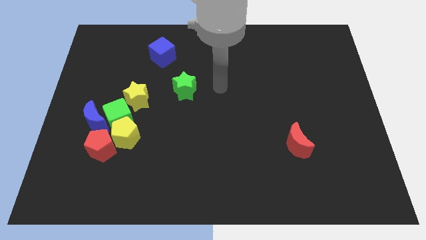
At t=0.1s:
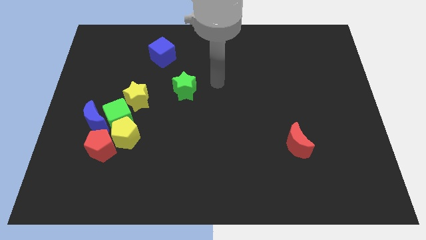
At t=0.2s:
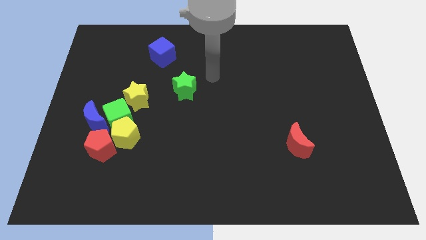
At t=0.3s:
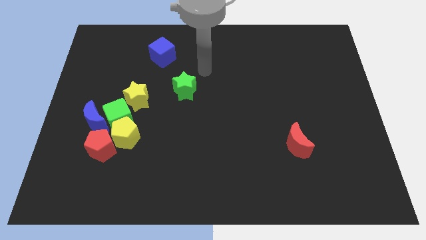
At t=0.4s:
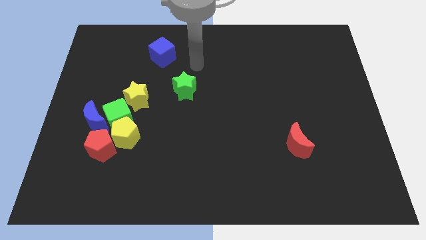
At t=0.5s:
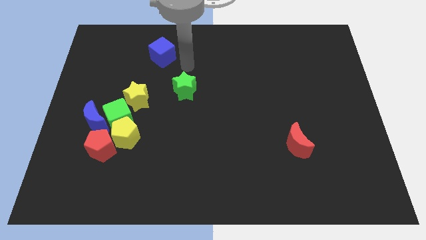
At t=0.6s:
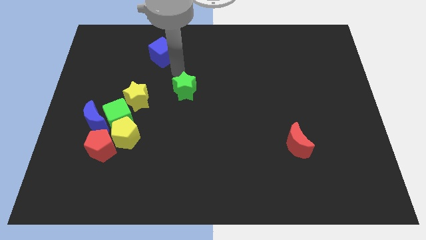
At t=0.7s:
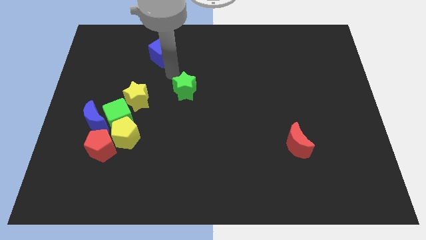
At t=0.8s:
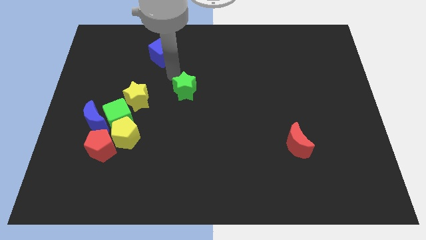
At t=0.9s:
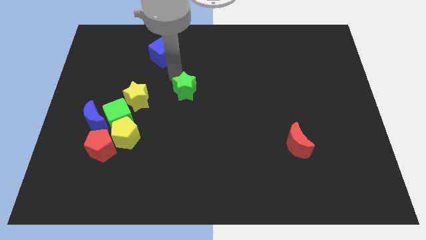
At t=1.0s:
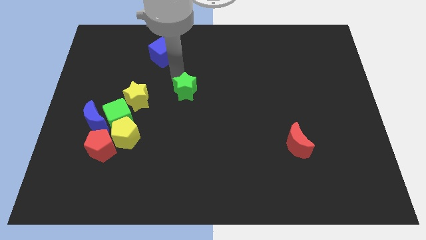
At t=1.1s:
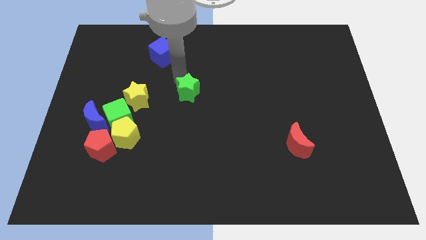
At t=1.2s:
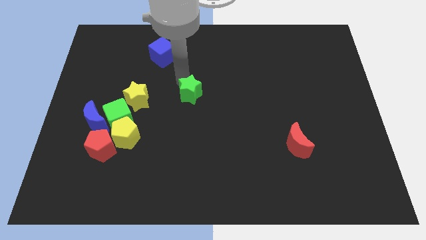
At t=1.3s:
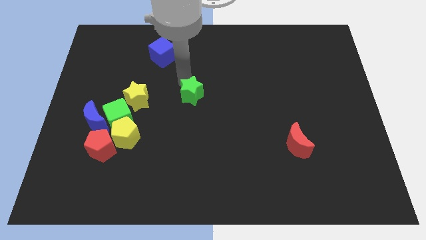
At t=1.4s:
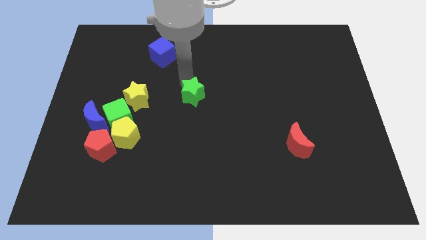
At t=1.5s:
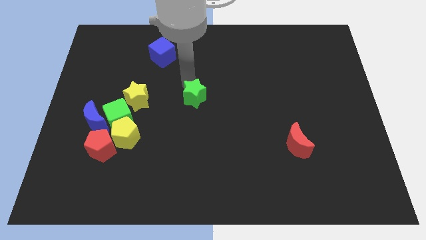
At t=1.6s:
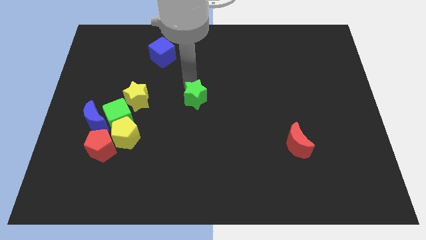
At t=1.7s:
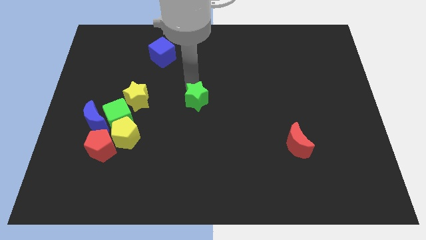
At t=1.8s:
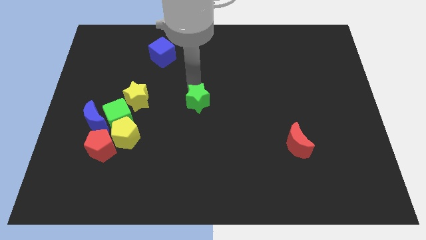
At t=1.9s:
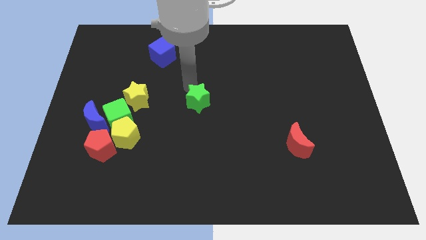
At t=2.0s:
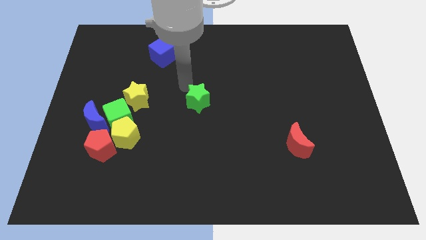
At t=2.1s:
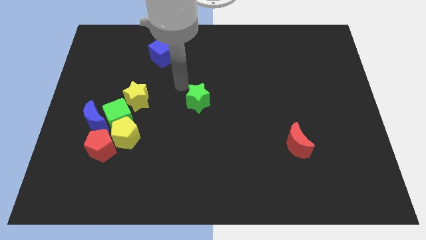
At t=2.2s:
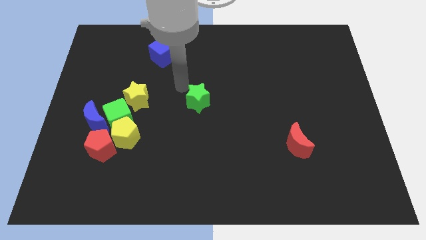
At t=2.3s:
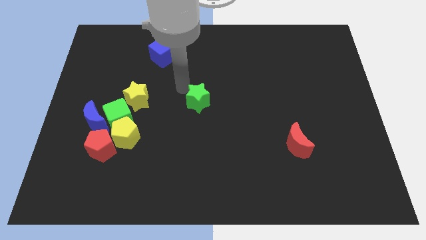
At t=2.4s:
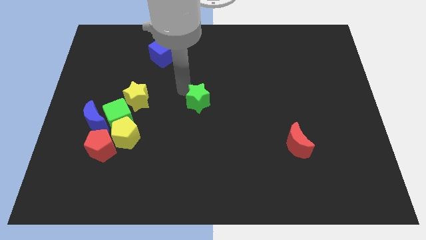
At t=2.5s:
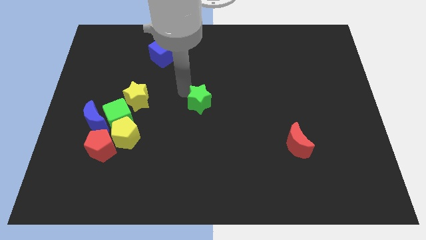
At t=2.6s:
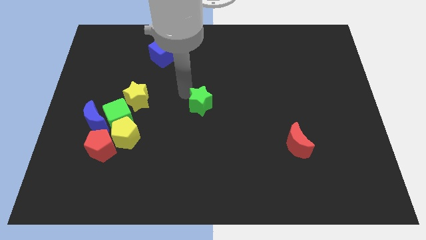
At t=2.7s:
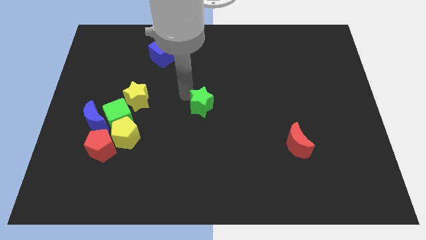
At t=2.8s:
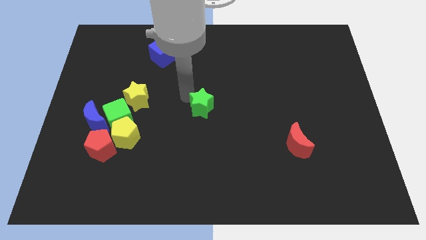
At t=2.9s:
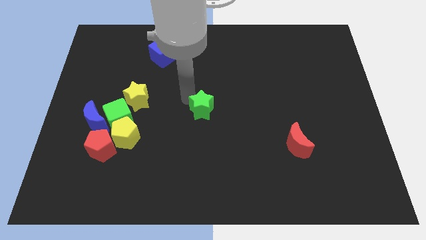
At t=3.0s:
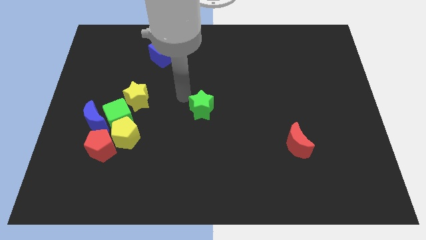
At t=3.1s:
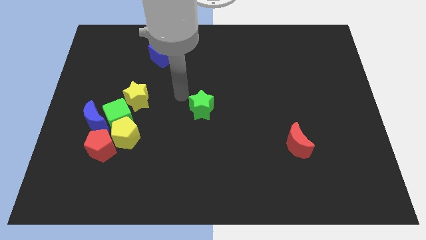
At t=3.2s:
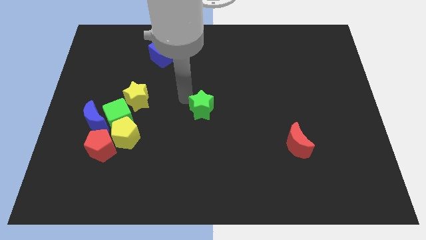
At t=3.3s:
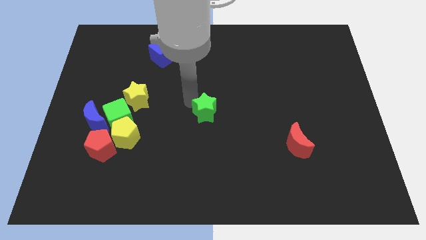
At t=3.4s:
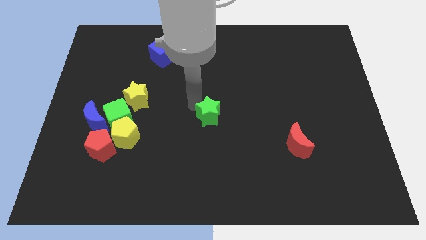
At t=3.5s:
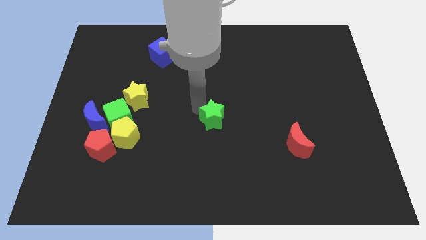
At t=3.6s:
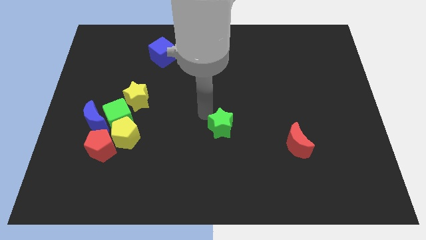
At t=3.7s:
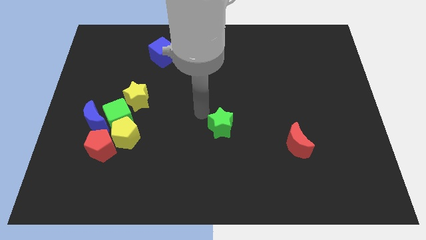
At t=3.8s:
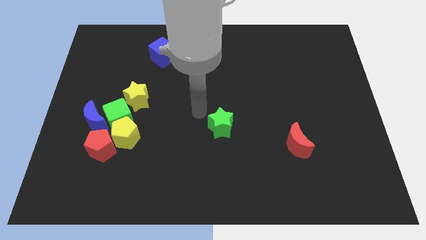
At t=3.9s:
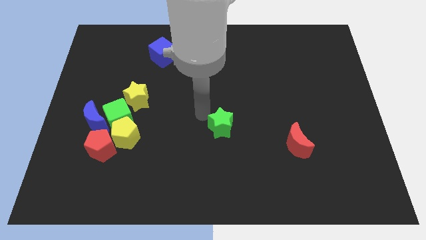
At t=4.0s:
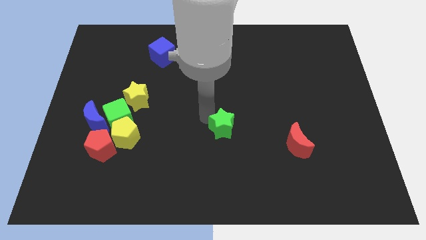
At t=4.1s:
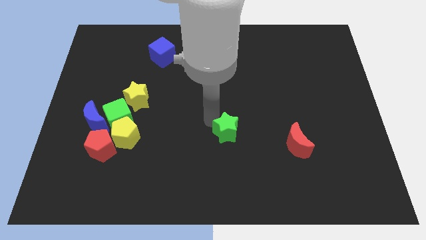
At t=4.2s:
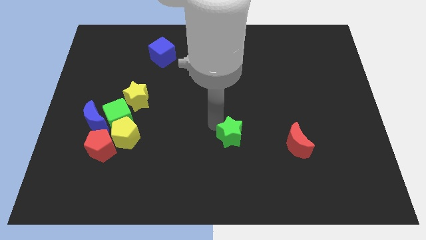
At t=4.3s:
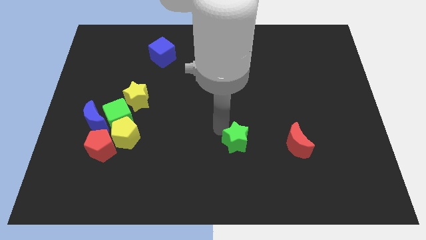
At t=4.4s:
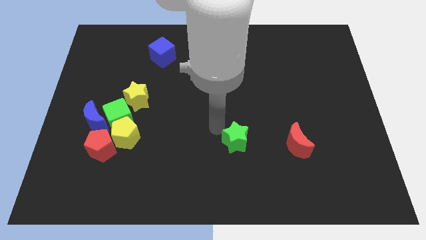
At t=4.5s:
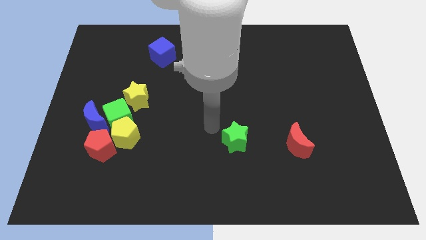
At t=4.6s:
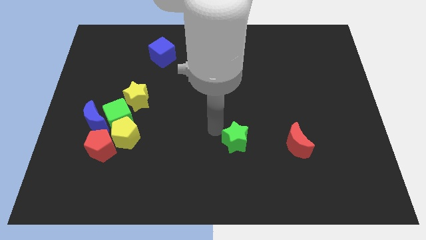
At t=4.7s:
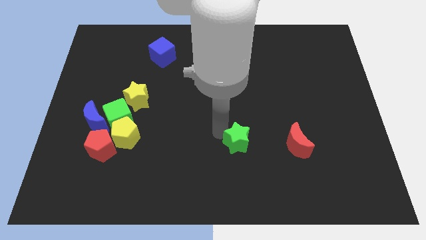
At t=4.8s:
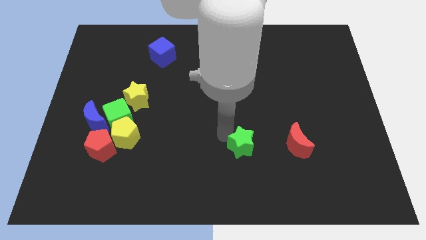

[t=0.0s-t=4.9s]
push the green star down and right diagonally

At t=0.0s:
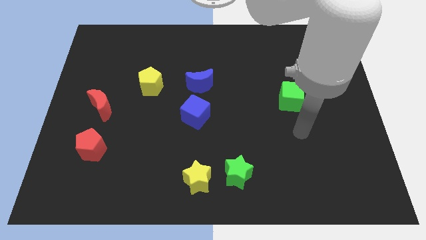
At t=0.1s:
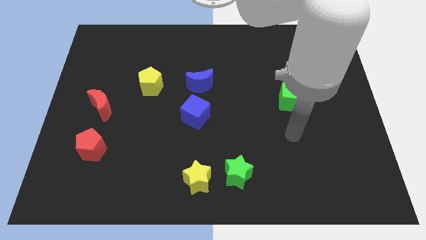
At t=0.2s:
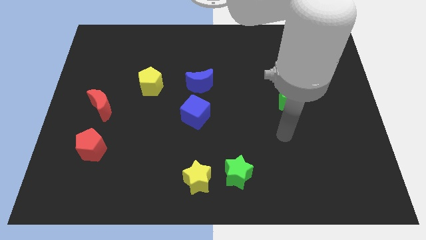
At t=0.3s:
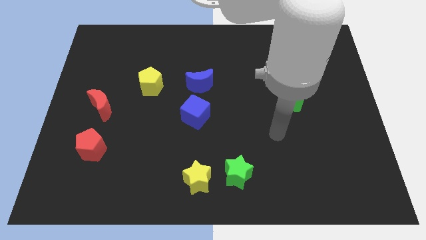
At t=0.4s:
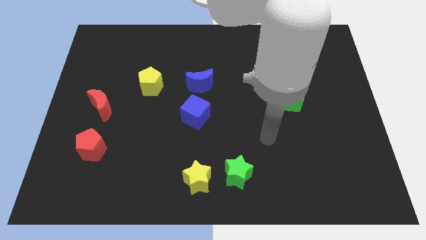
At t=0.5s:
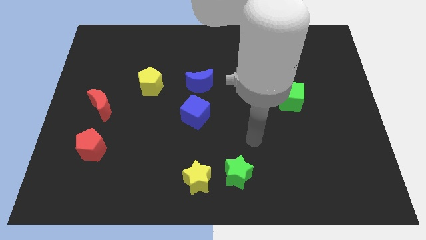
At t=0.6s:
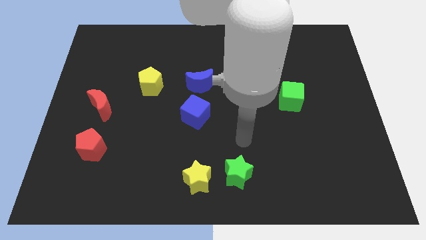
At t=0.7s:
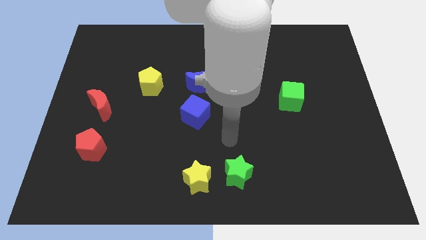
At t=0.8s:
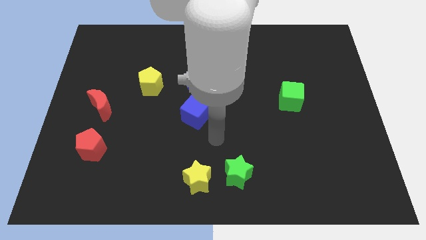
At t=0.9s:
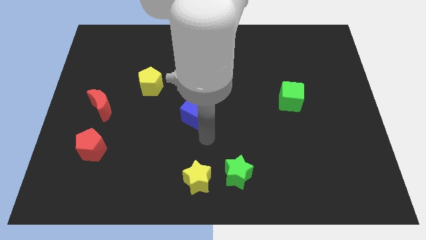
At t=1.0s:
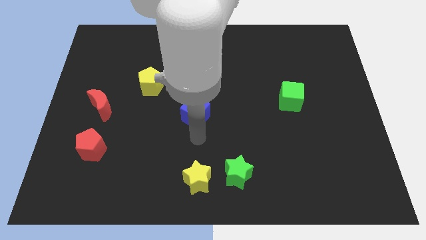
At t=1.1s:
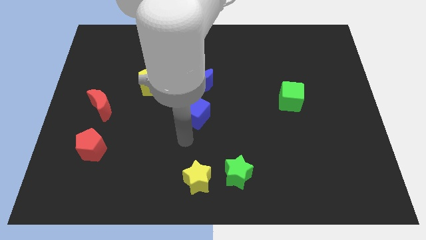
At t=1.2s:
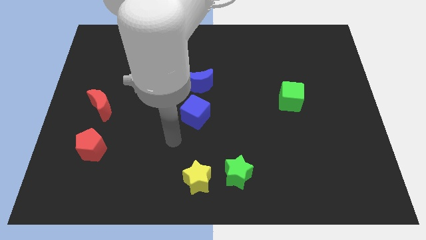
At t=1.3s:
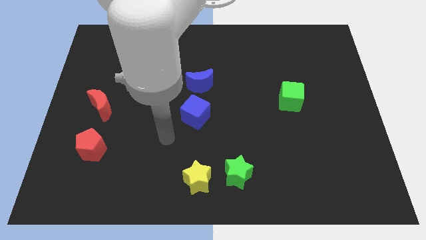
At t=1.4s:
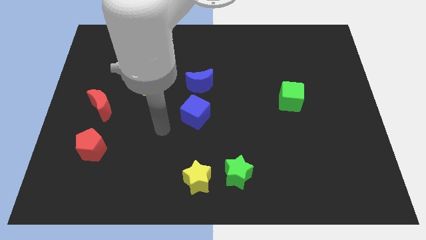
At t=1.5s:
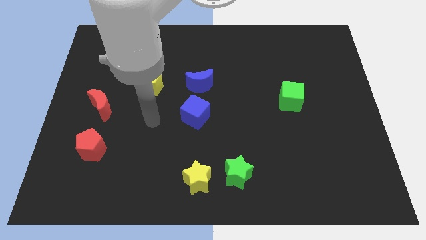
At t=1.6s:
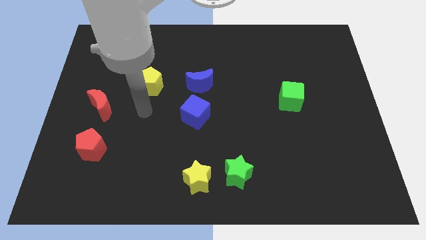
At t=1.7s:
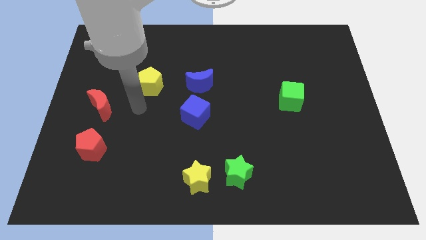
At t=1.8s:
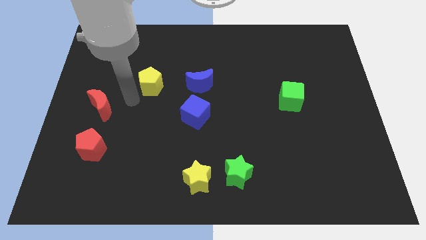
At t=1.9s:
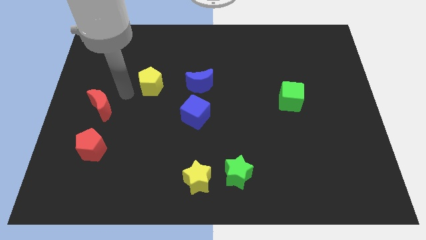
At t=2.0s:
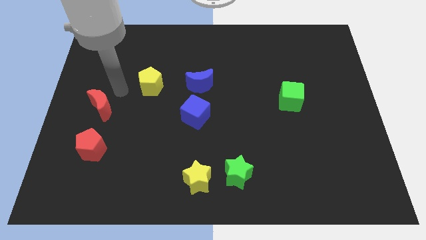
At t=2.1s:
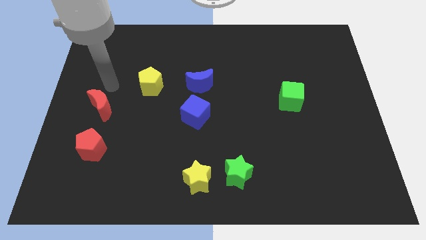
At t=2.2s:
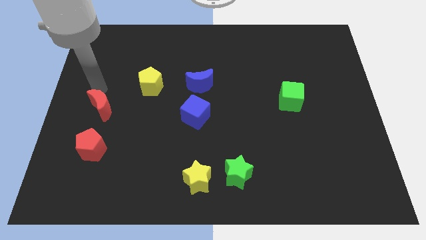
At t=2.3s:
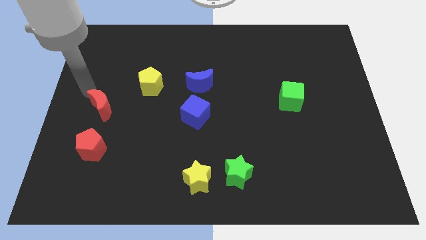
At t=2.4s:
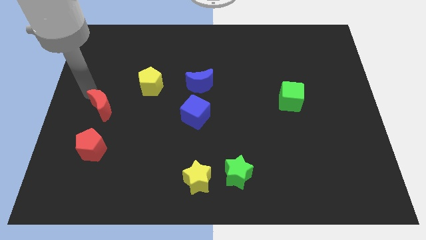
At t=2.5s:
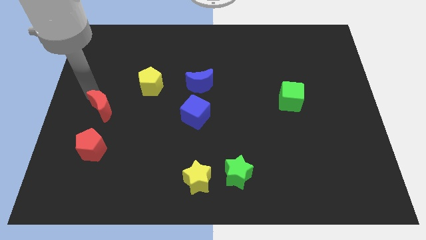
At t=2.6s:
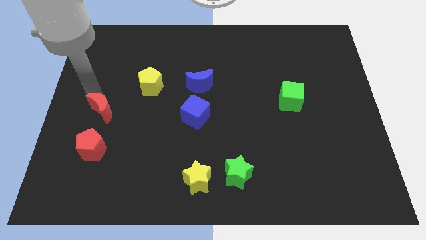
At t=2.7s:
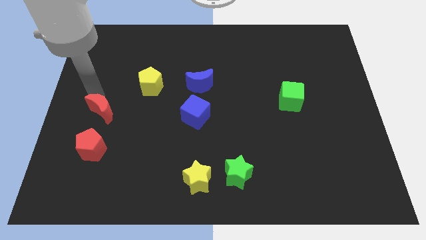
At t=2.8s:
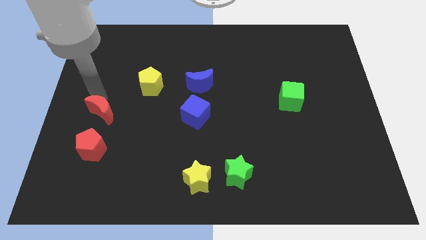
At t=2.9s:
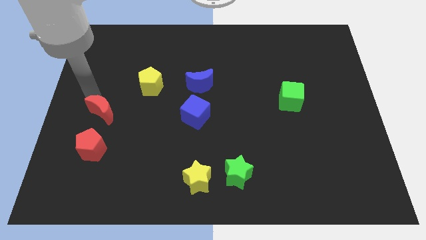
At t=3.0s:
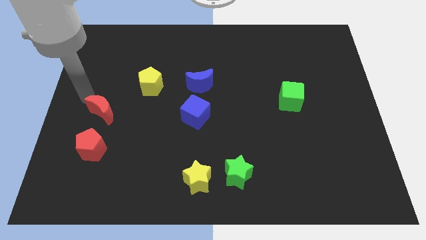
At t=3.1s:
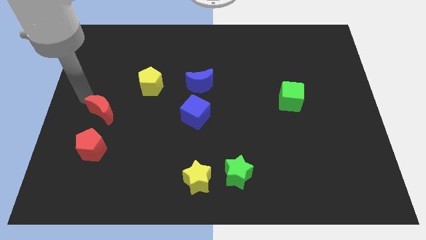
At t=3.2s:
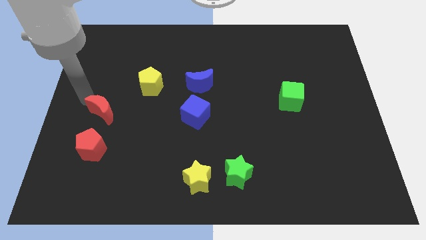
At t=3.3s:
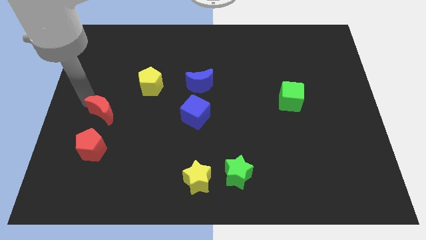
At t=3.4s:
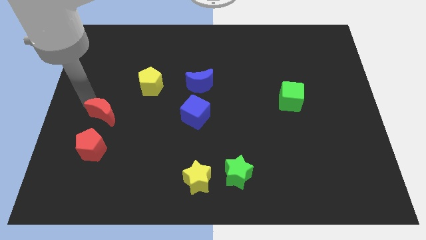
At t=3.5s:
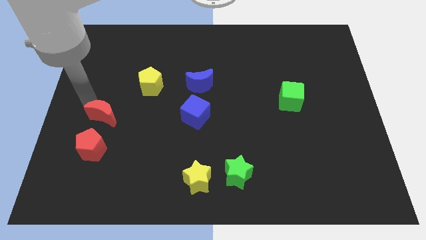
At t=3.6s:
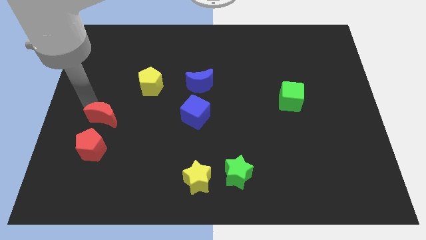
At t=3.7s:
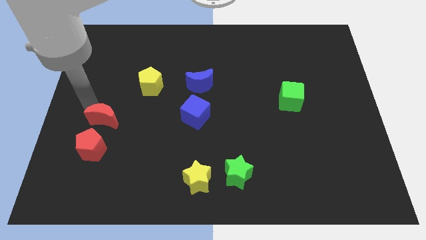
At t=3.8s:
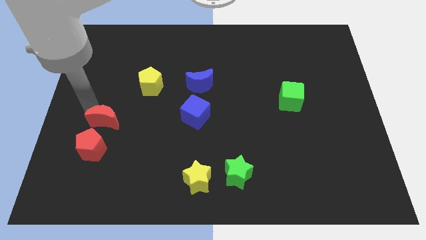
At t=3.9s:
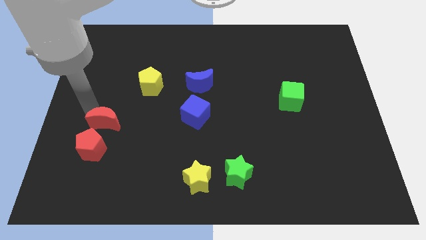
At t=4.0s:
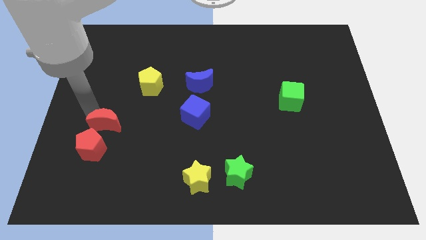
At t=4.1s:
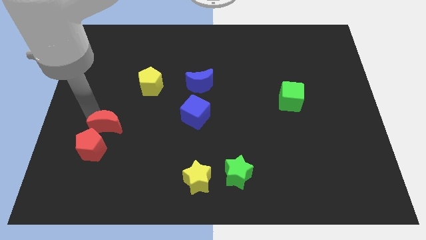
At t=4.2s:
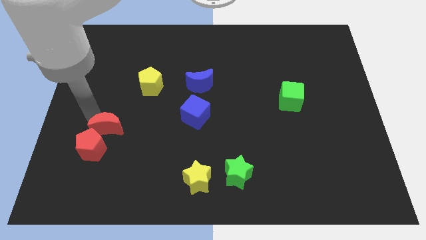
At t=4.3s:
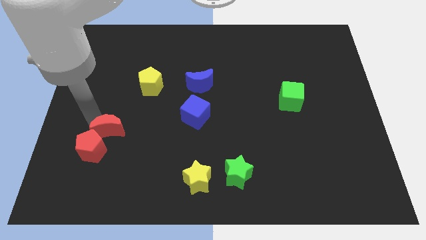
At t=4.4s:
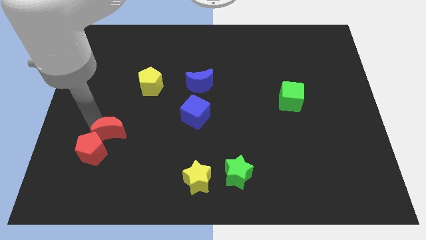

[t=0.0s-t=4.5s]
push the red moon a little down and to the right
